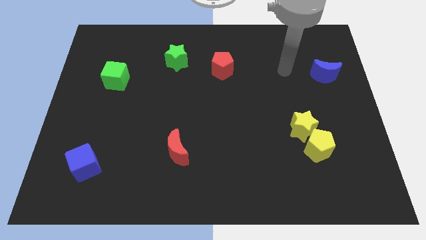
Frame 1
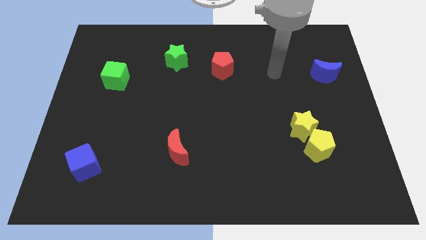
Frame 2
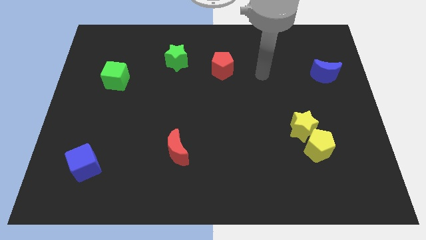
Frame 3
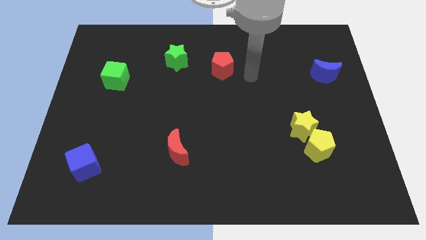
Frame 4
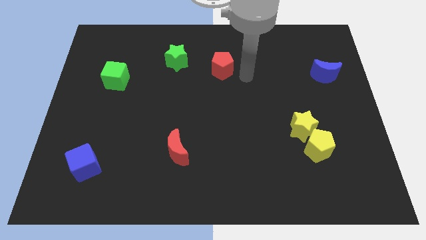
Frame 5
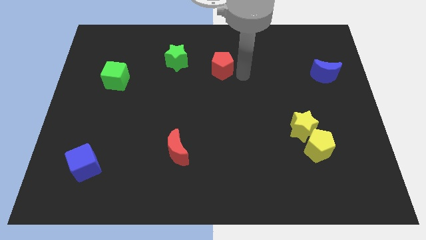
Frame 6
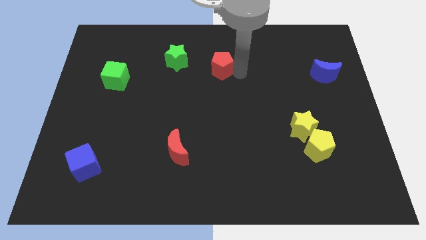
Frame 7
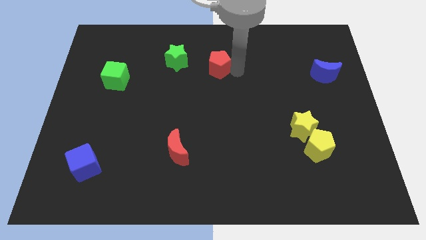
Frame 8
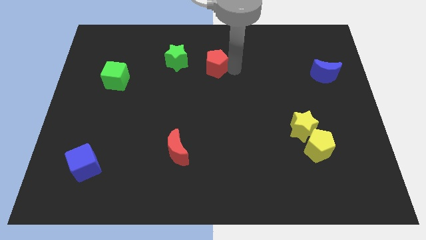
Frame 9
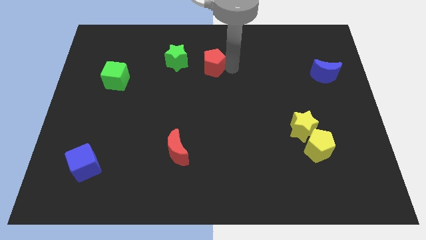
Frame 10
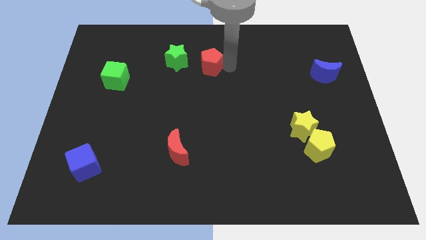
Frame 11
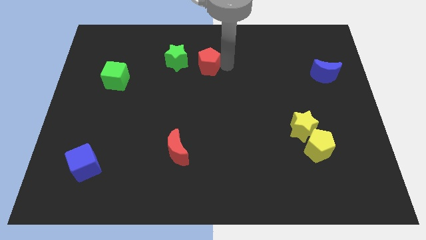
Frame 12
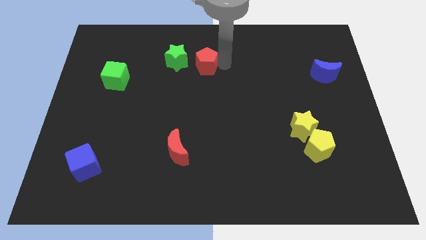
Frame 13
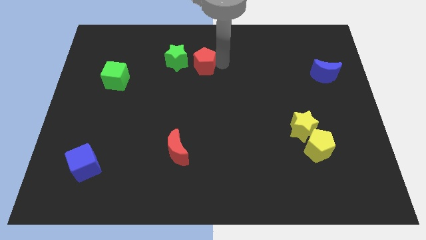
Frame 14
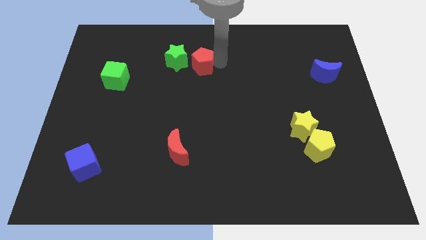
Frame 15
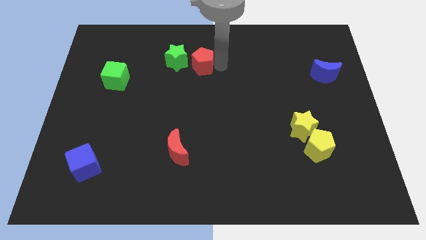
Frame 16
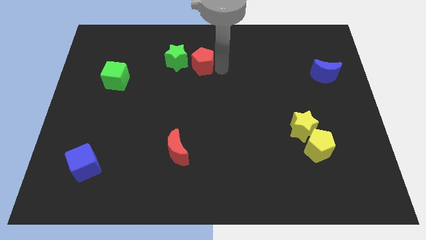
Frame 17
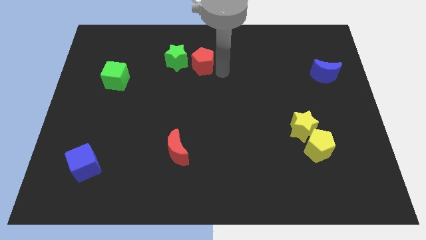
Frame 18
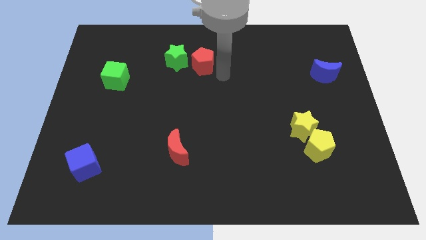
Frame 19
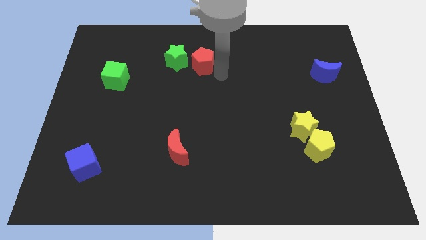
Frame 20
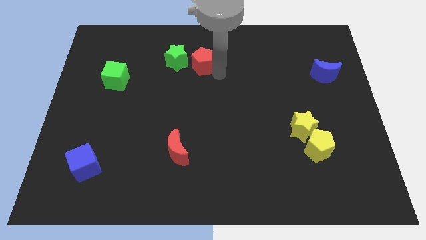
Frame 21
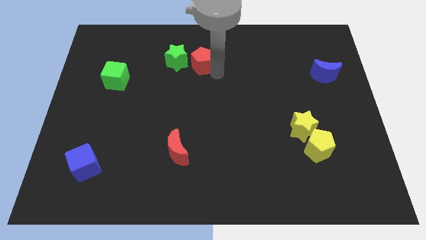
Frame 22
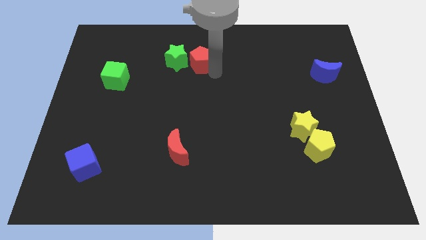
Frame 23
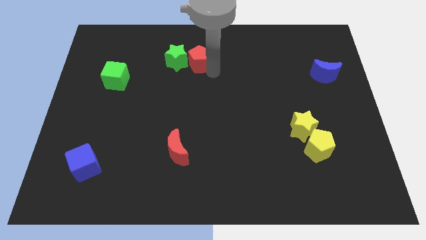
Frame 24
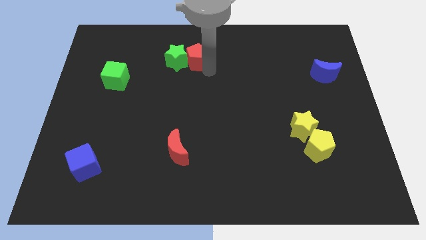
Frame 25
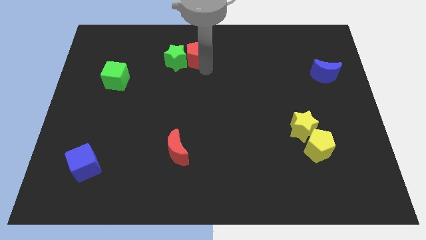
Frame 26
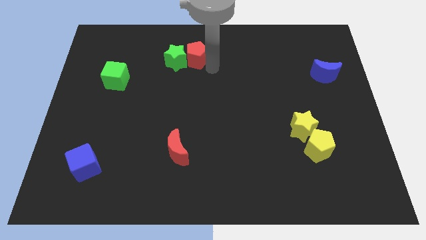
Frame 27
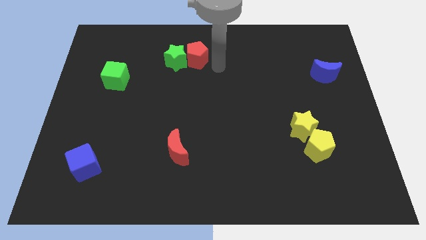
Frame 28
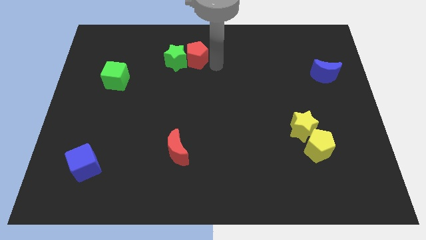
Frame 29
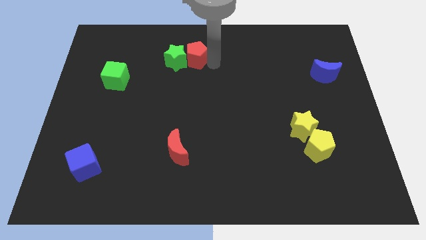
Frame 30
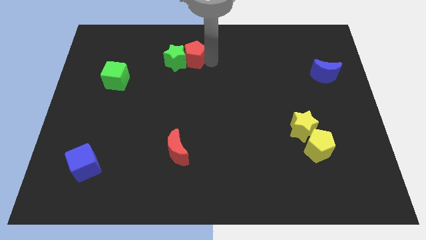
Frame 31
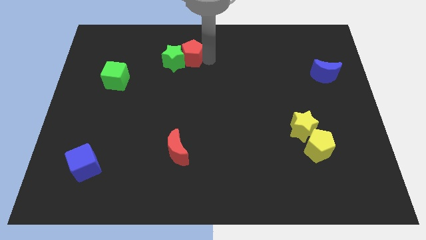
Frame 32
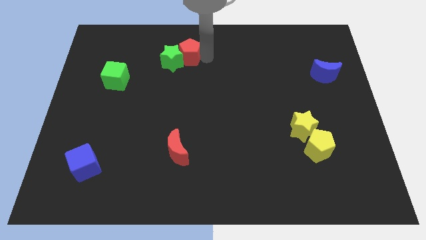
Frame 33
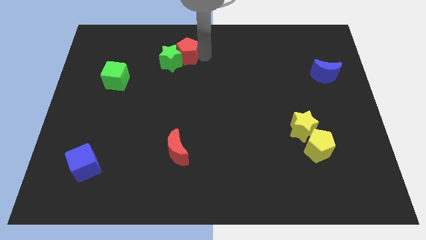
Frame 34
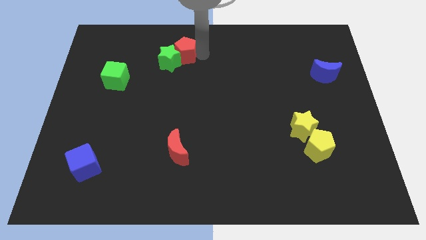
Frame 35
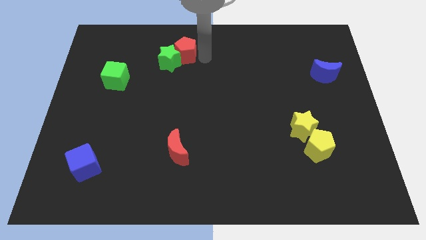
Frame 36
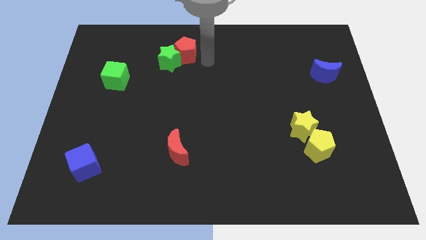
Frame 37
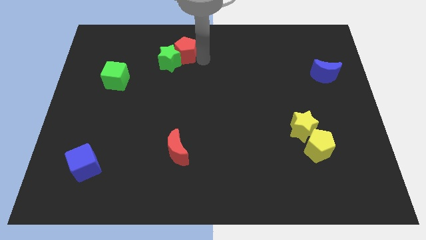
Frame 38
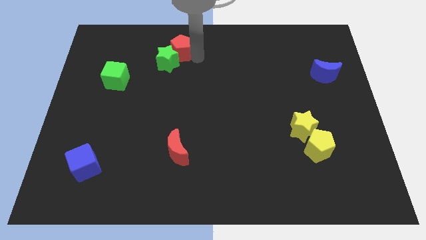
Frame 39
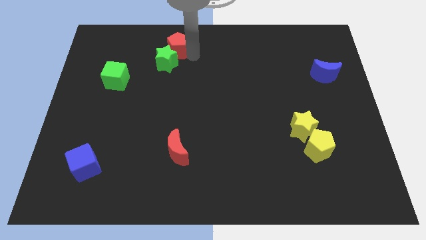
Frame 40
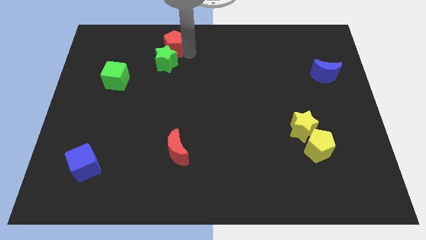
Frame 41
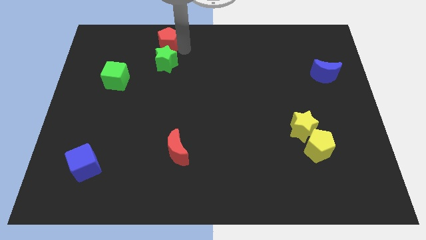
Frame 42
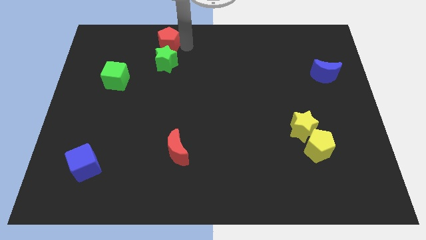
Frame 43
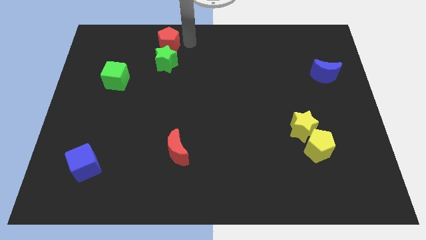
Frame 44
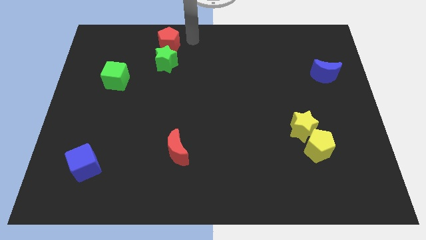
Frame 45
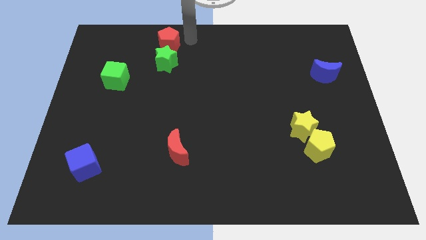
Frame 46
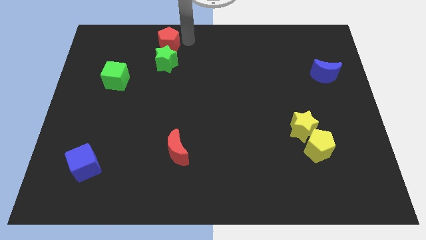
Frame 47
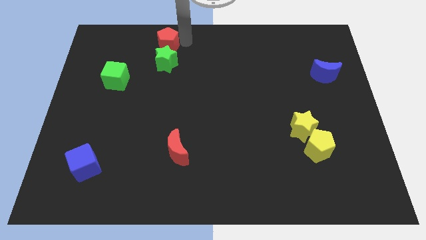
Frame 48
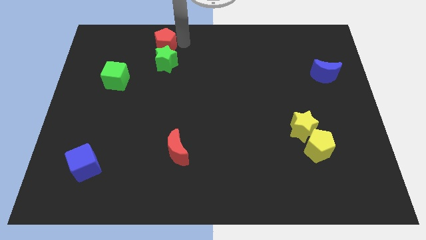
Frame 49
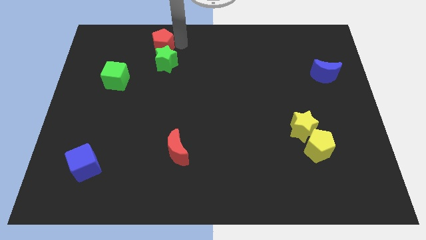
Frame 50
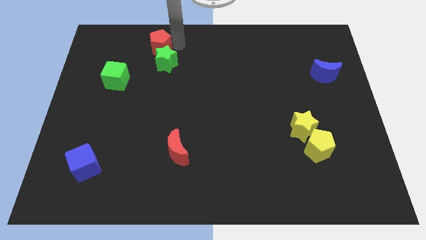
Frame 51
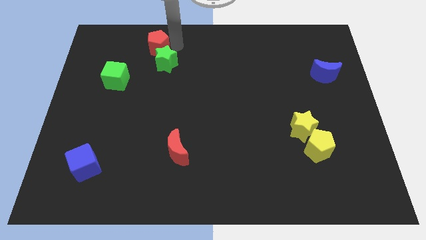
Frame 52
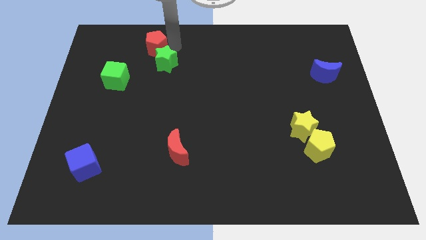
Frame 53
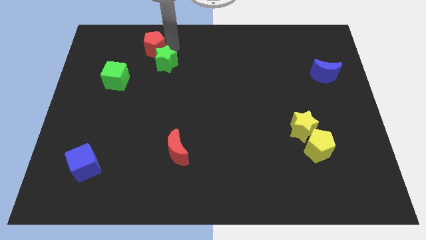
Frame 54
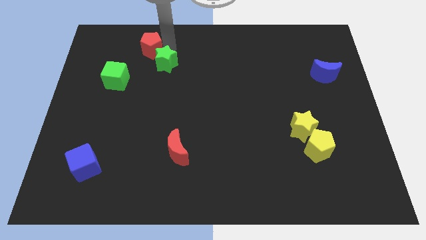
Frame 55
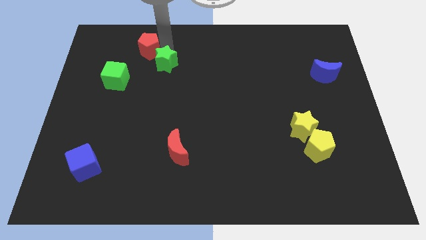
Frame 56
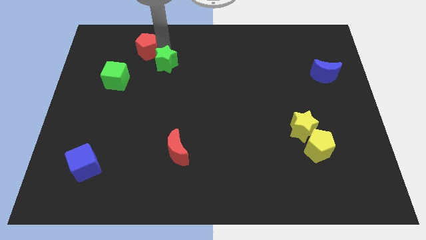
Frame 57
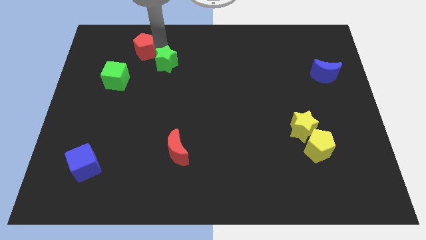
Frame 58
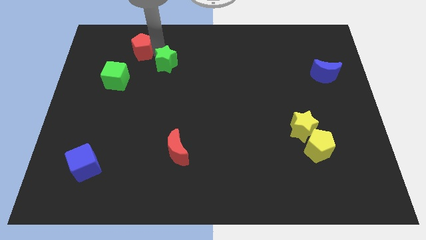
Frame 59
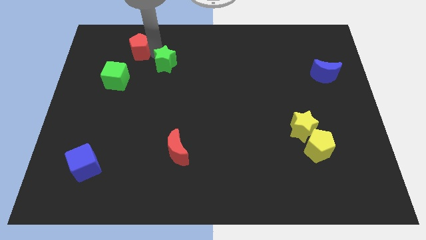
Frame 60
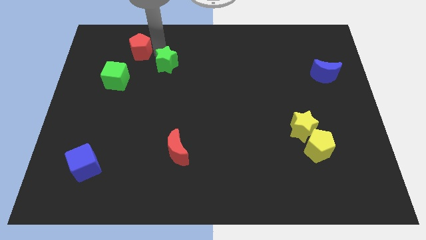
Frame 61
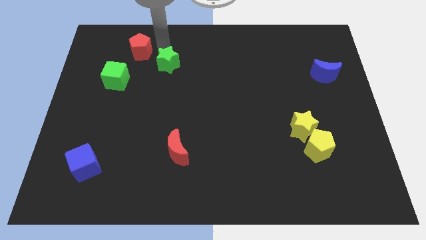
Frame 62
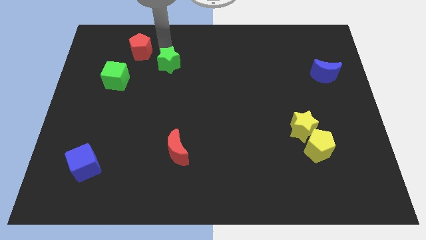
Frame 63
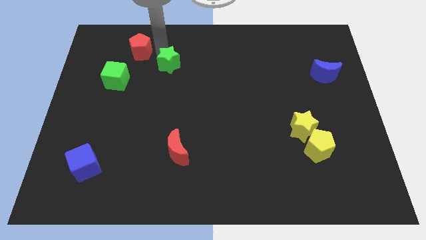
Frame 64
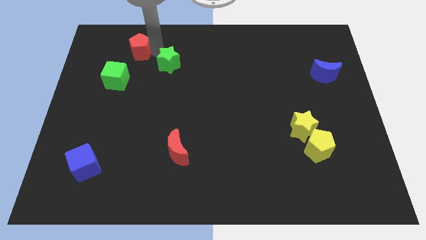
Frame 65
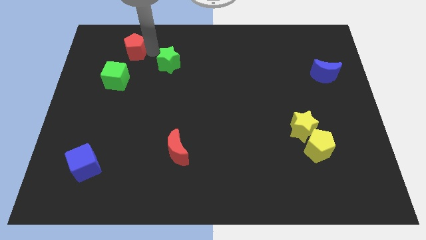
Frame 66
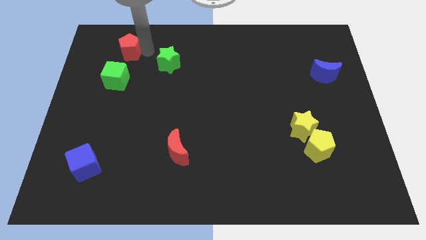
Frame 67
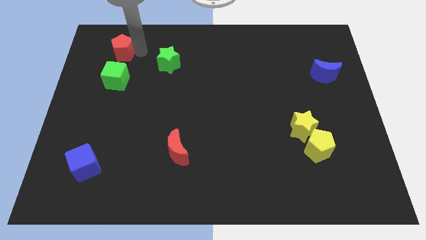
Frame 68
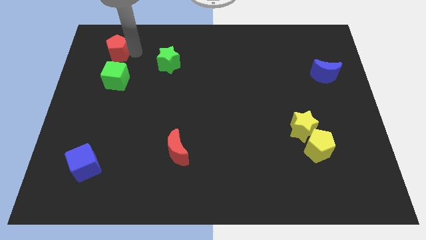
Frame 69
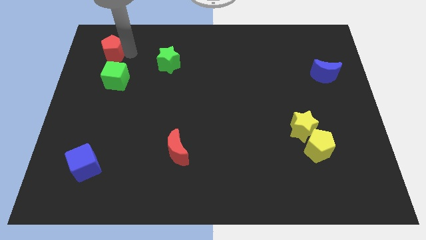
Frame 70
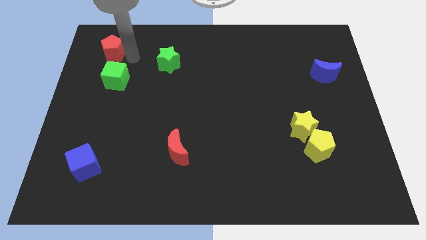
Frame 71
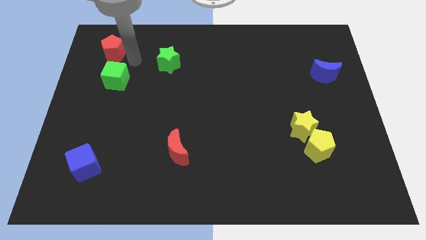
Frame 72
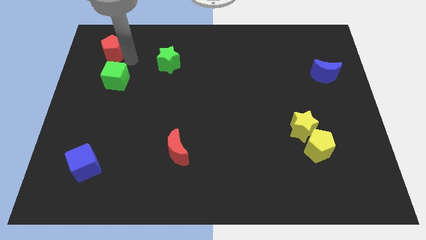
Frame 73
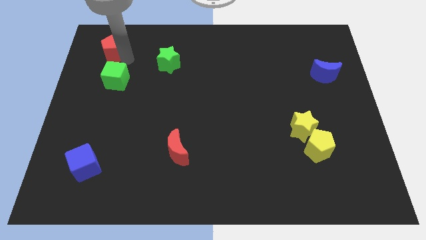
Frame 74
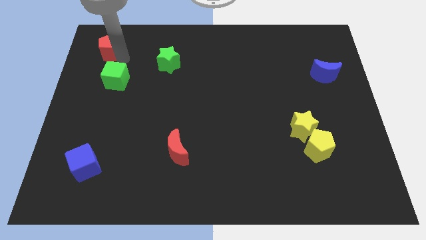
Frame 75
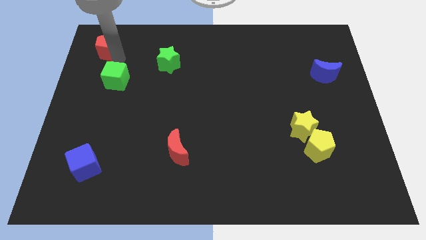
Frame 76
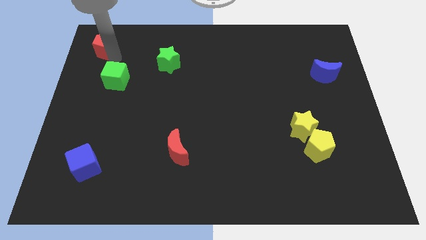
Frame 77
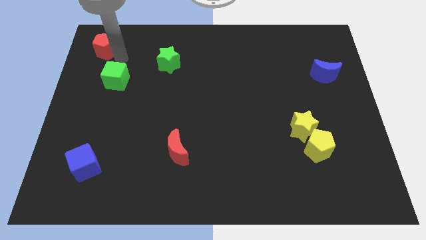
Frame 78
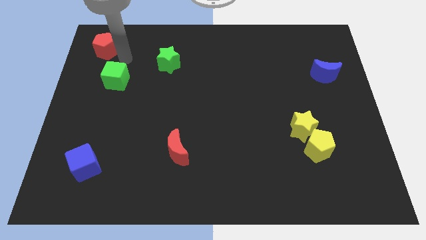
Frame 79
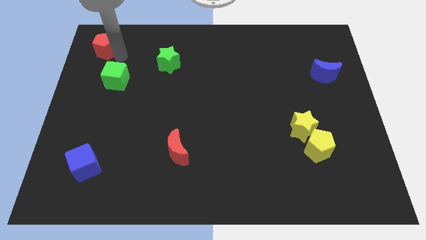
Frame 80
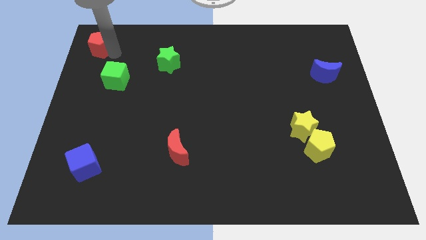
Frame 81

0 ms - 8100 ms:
put the red pentagon to the top left of the board
